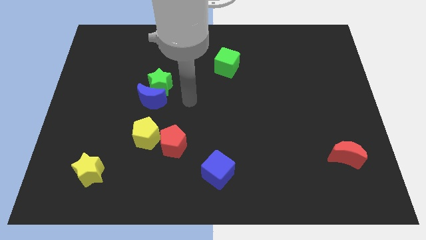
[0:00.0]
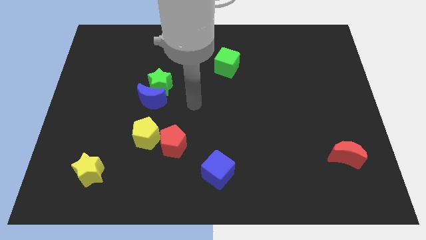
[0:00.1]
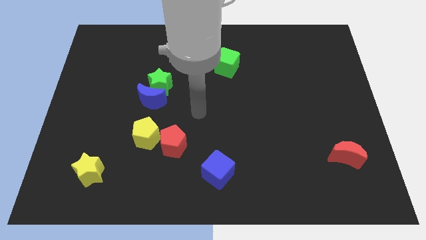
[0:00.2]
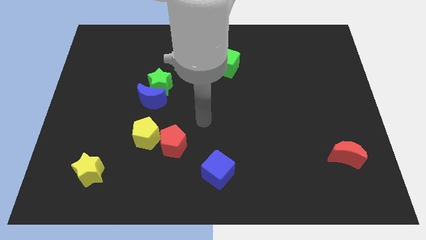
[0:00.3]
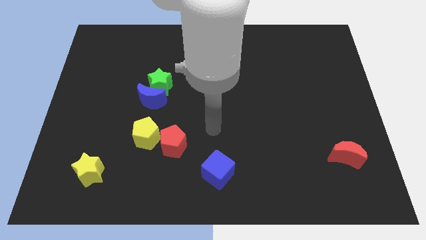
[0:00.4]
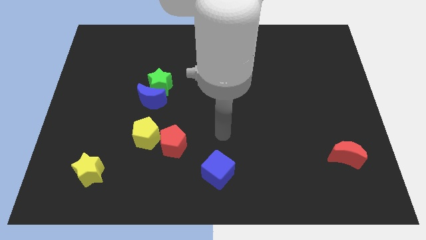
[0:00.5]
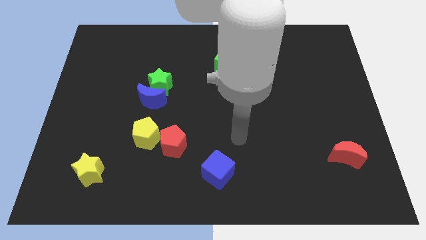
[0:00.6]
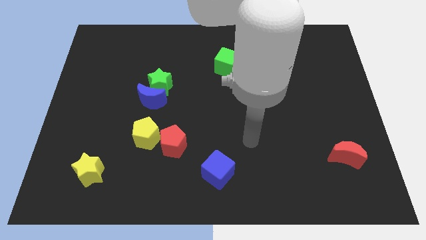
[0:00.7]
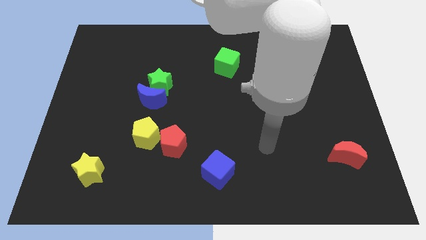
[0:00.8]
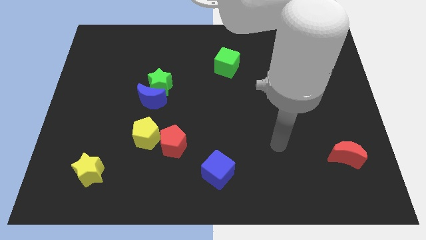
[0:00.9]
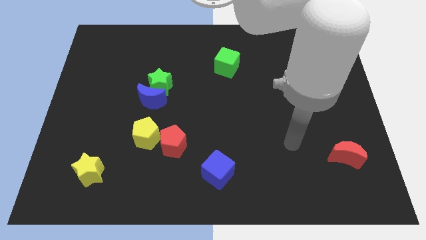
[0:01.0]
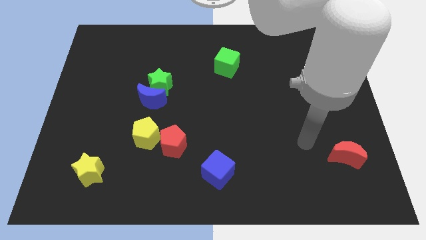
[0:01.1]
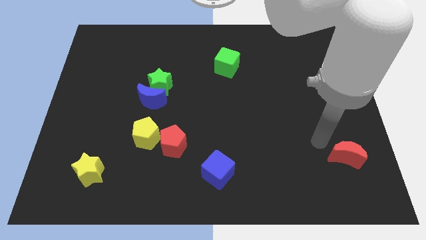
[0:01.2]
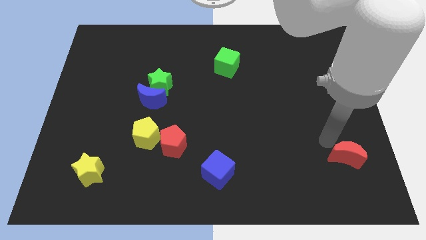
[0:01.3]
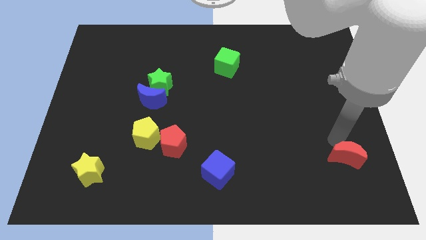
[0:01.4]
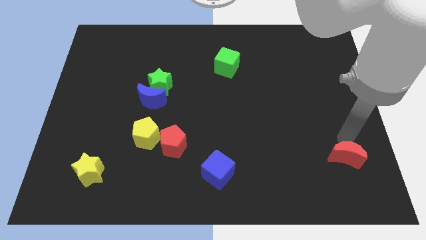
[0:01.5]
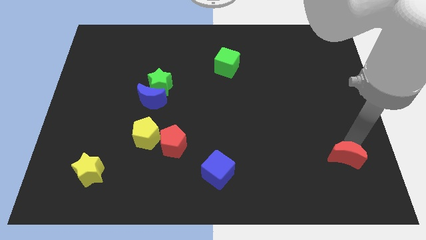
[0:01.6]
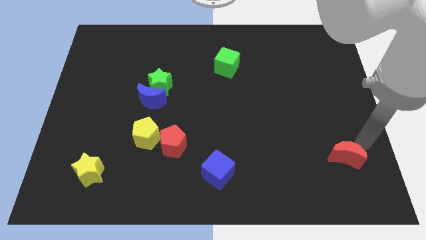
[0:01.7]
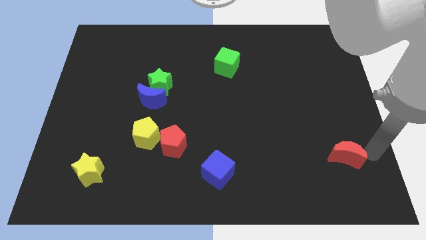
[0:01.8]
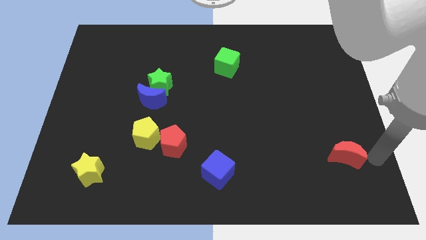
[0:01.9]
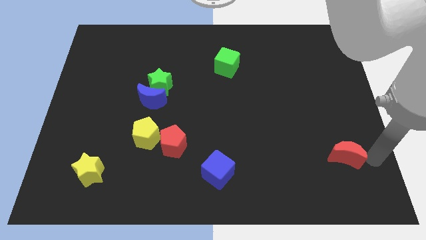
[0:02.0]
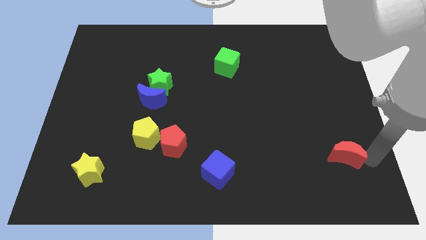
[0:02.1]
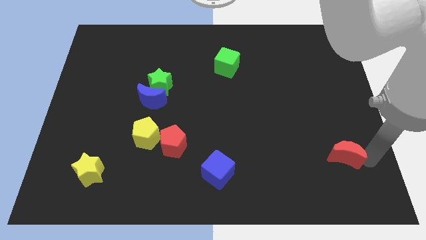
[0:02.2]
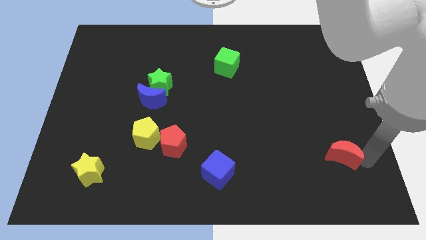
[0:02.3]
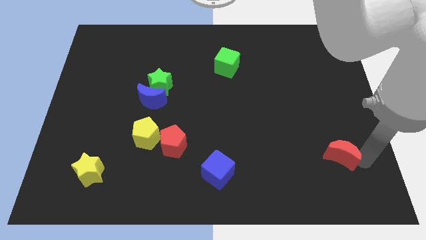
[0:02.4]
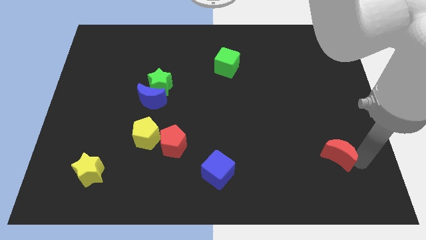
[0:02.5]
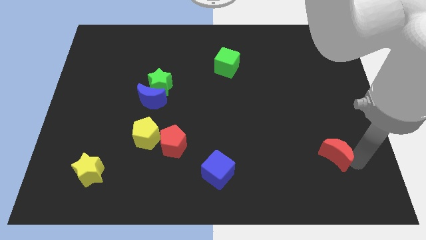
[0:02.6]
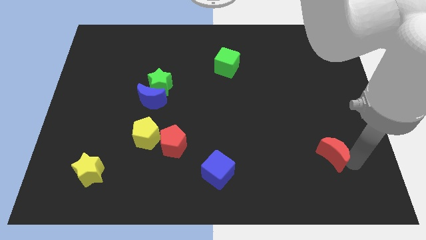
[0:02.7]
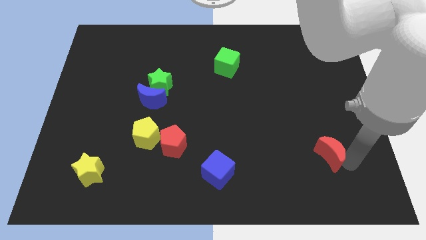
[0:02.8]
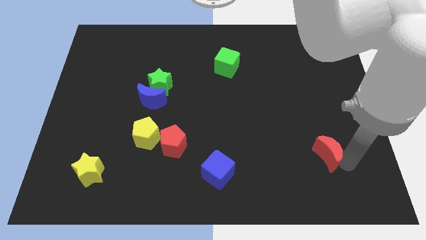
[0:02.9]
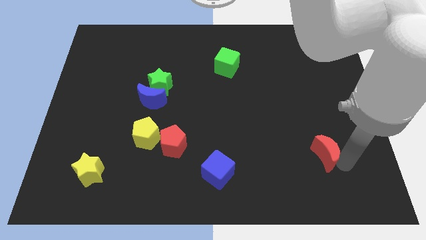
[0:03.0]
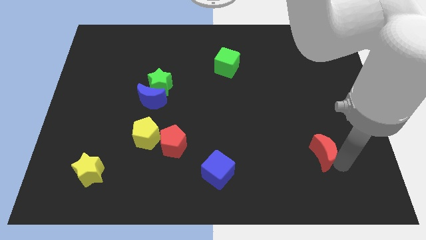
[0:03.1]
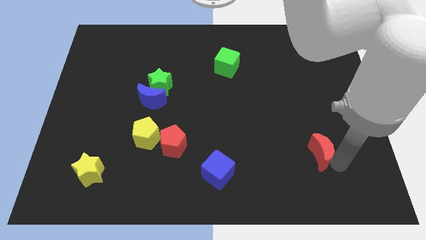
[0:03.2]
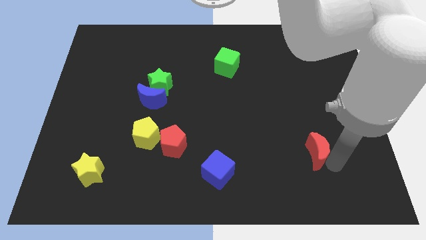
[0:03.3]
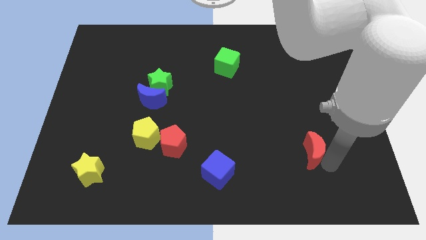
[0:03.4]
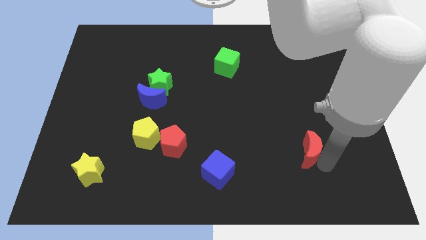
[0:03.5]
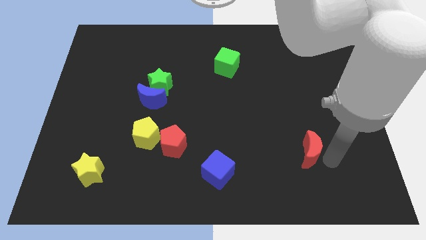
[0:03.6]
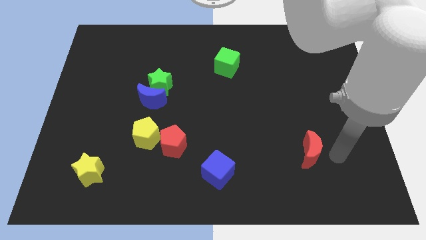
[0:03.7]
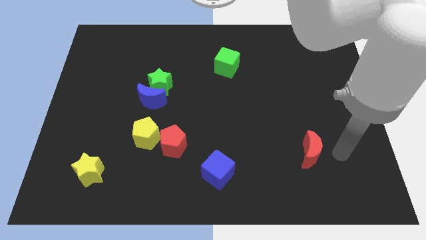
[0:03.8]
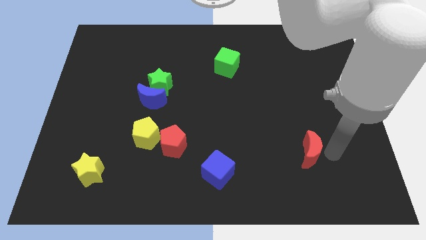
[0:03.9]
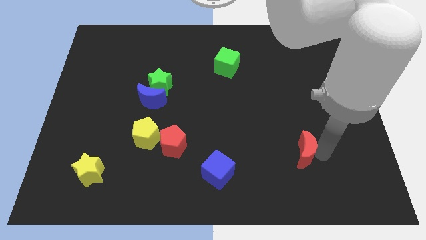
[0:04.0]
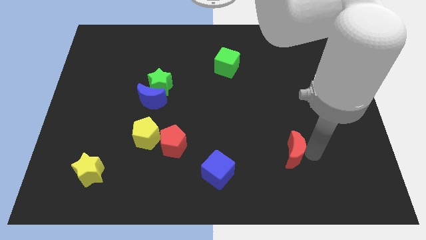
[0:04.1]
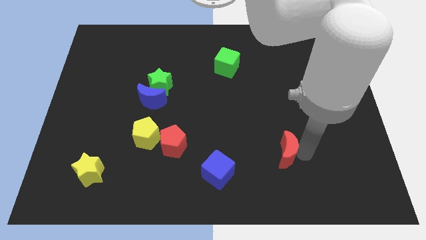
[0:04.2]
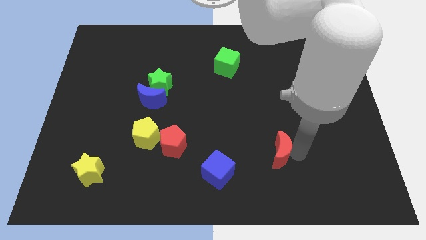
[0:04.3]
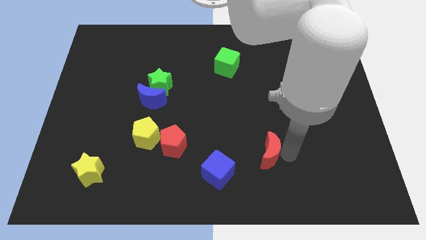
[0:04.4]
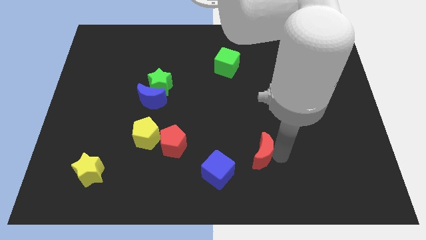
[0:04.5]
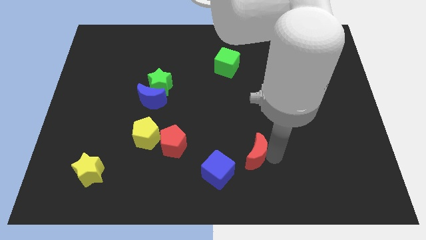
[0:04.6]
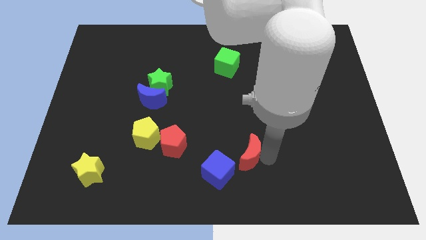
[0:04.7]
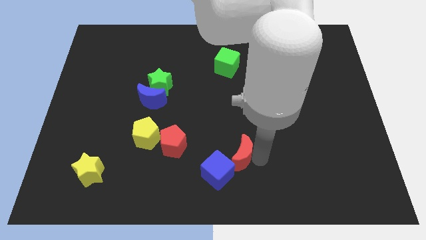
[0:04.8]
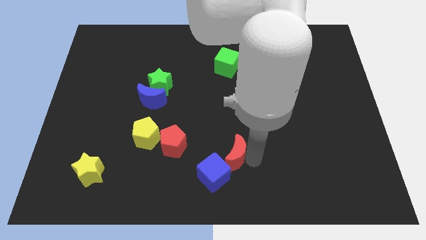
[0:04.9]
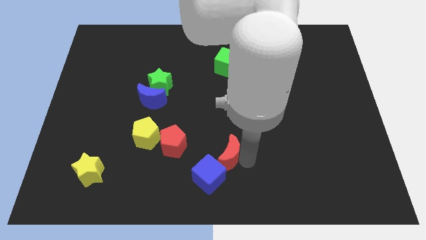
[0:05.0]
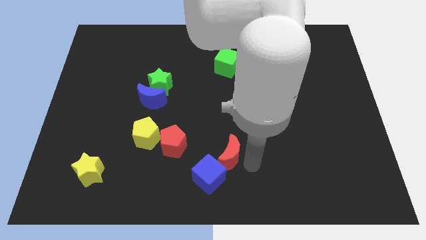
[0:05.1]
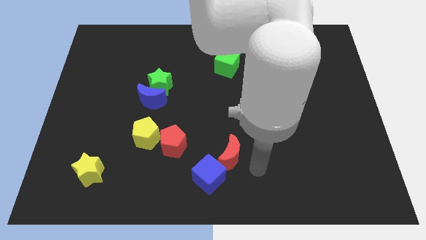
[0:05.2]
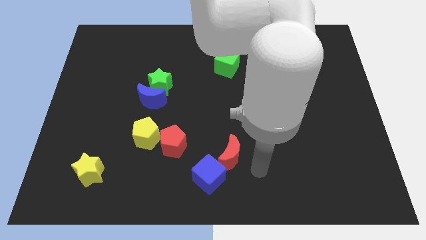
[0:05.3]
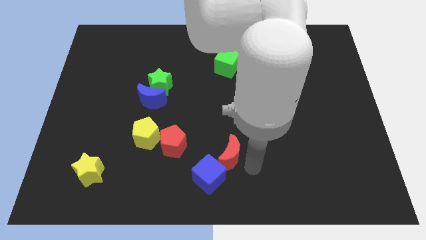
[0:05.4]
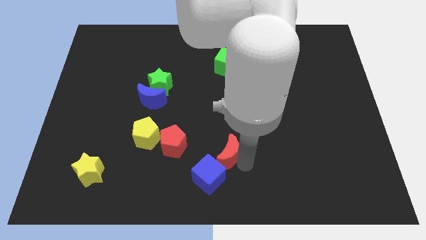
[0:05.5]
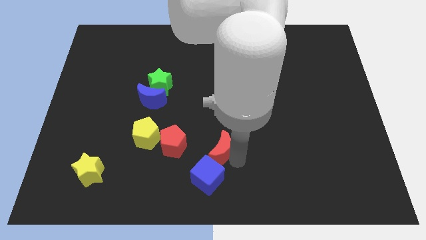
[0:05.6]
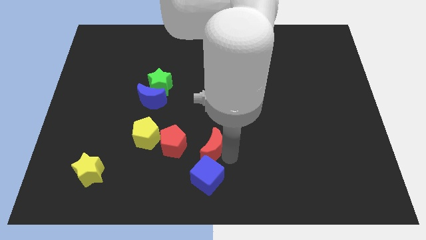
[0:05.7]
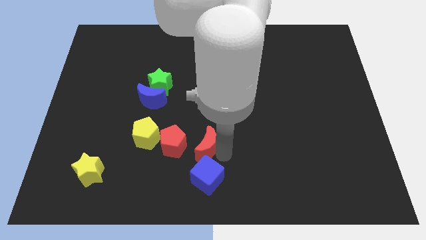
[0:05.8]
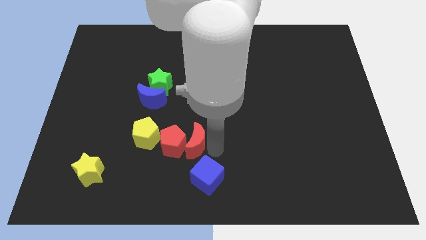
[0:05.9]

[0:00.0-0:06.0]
move the red moon next to the red pentagon

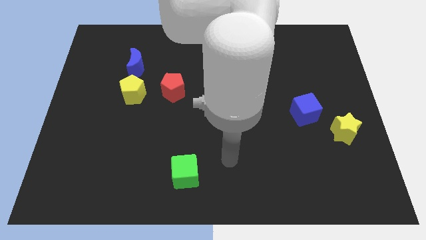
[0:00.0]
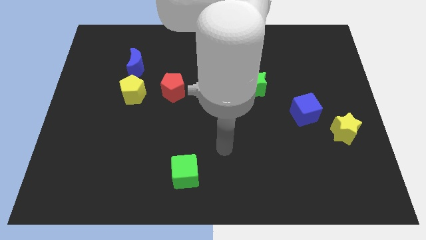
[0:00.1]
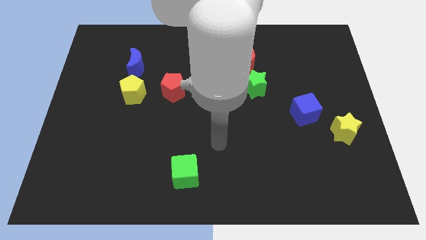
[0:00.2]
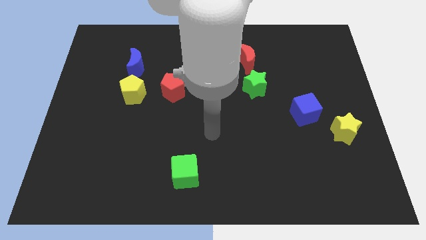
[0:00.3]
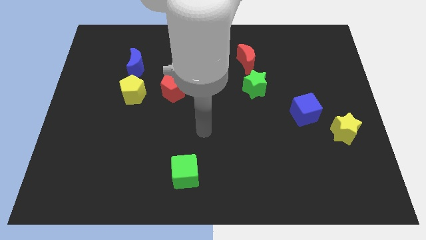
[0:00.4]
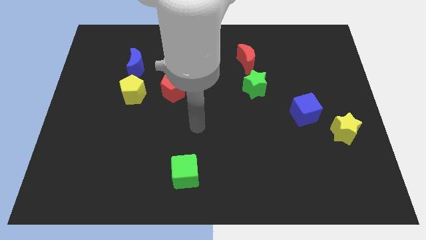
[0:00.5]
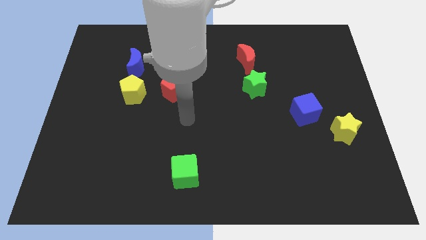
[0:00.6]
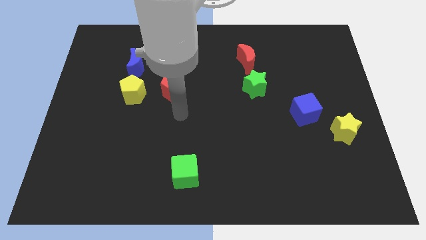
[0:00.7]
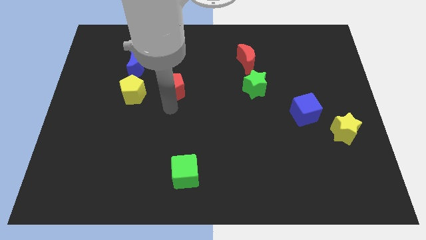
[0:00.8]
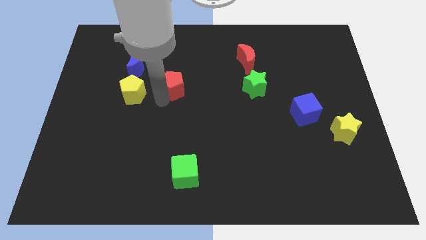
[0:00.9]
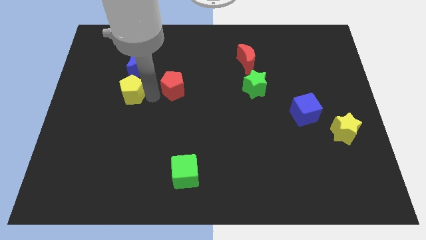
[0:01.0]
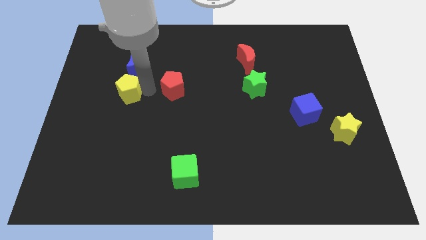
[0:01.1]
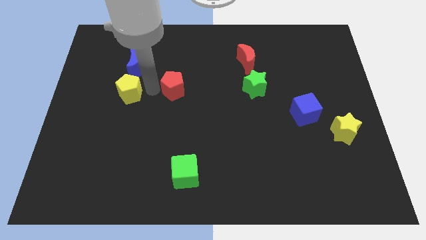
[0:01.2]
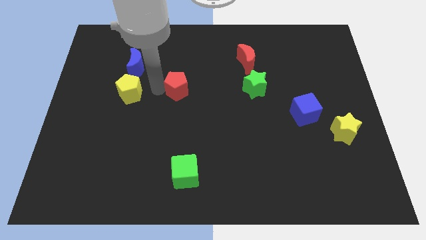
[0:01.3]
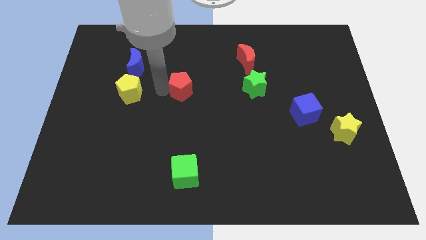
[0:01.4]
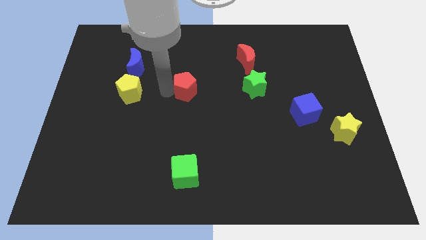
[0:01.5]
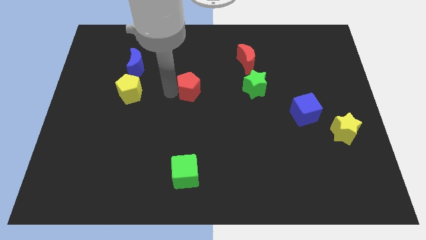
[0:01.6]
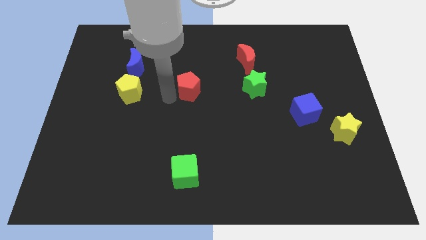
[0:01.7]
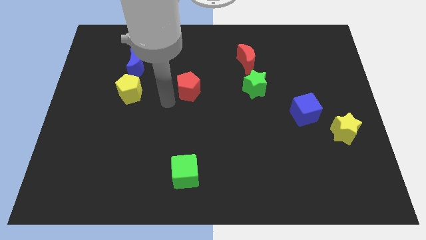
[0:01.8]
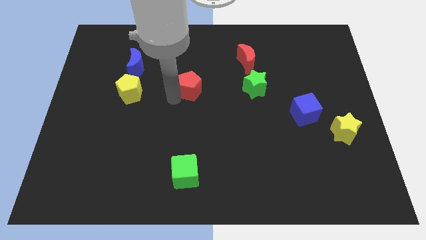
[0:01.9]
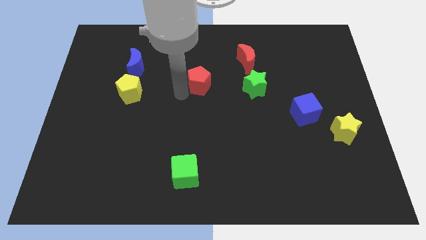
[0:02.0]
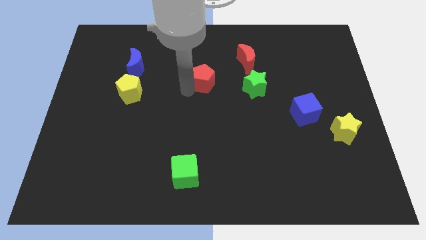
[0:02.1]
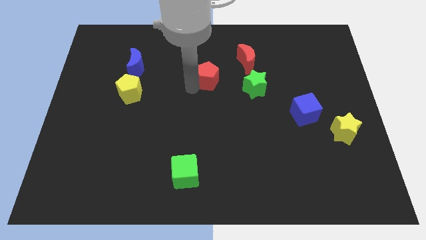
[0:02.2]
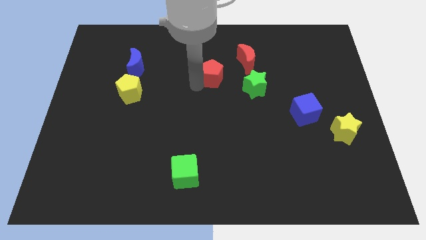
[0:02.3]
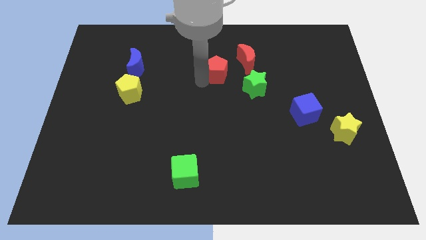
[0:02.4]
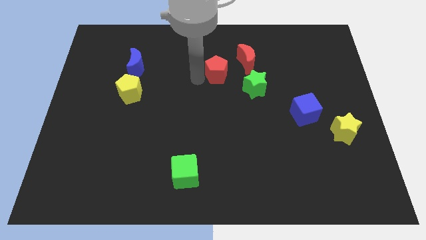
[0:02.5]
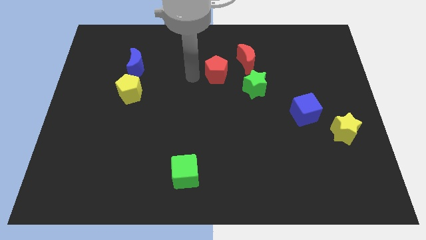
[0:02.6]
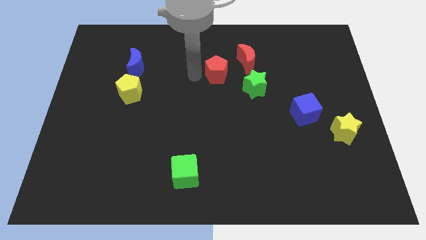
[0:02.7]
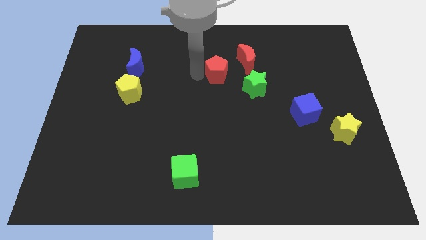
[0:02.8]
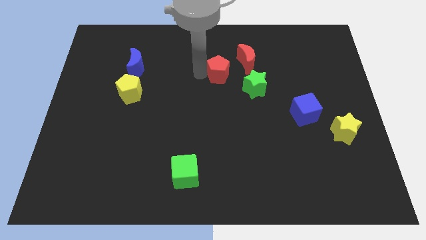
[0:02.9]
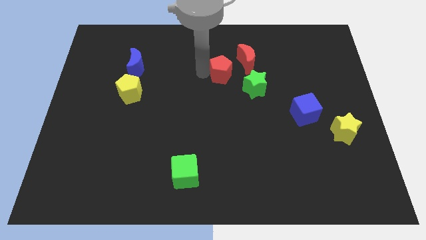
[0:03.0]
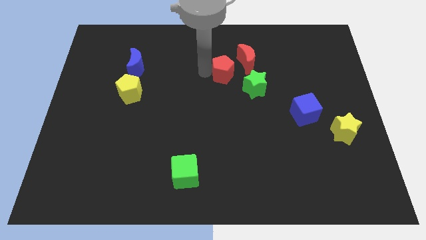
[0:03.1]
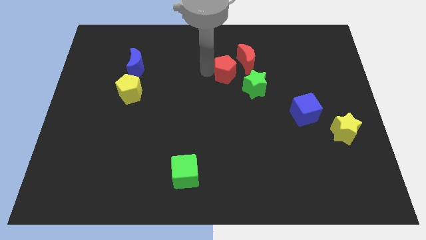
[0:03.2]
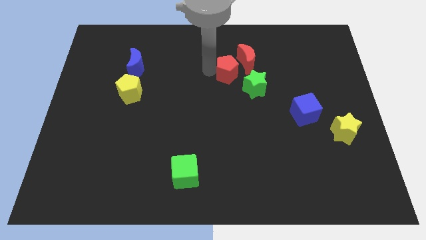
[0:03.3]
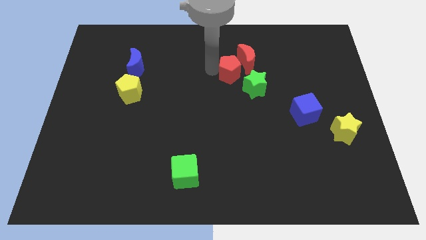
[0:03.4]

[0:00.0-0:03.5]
push the red pentagon towards the red moon
